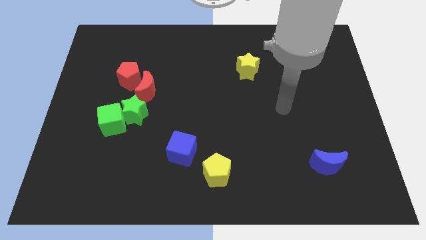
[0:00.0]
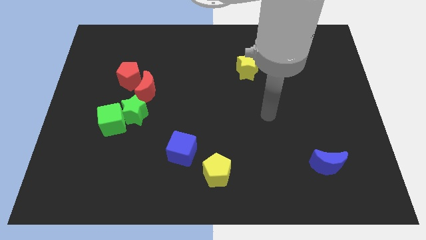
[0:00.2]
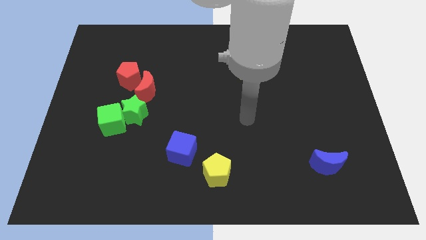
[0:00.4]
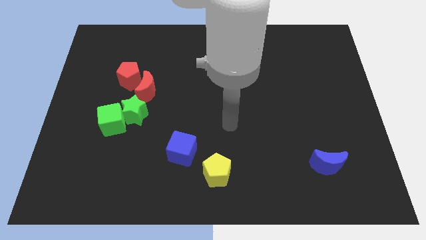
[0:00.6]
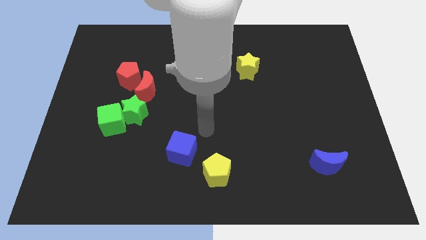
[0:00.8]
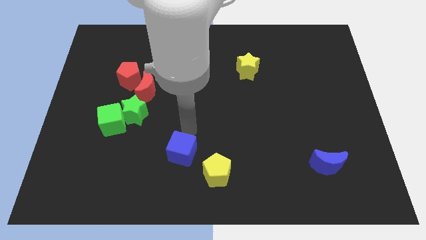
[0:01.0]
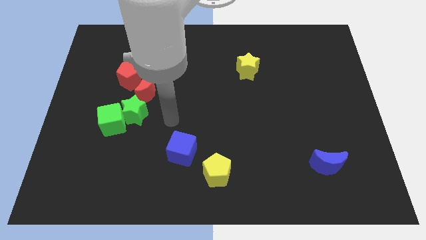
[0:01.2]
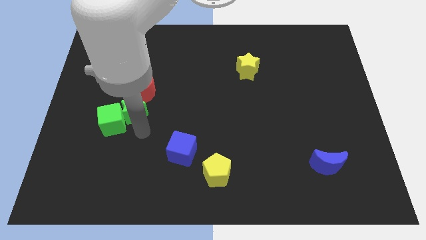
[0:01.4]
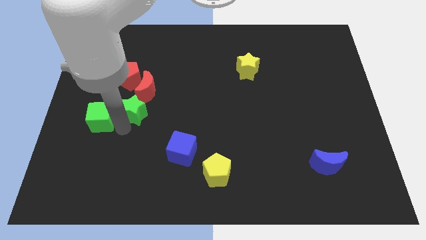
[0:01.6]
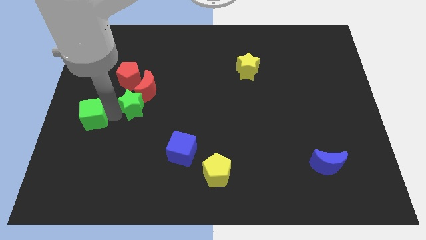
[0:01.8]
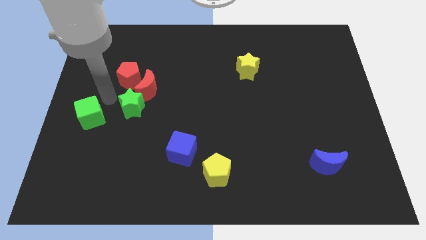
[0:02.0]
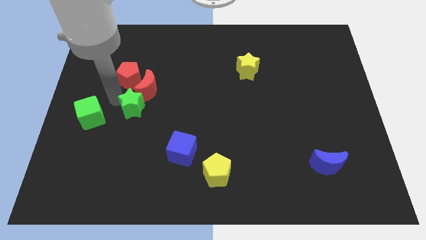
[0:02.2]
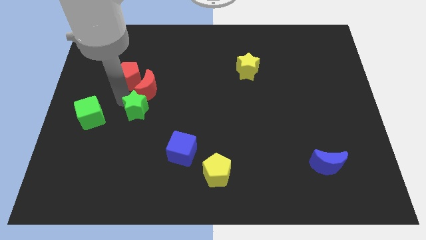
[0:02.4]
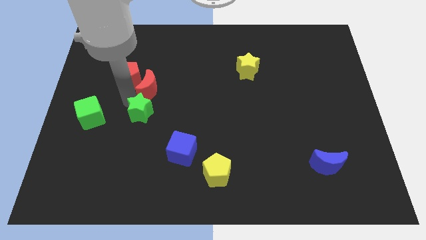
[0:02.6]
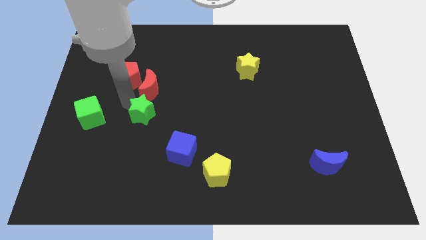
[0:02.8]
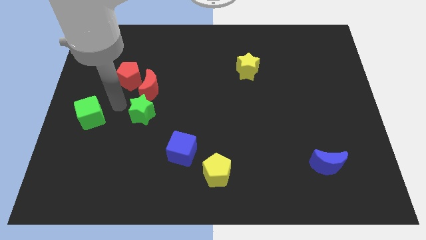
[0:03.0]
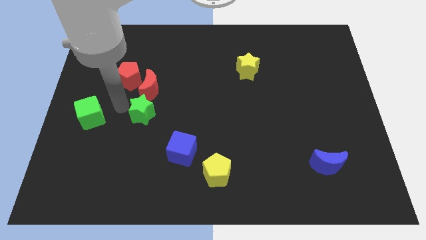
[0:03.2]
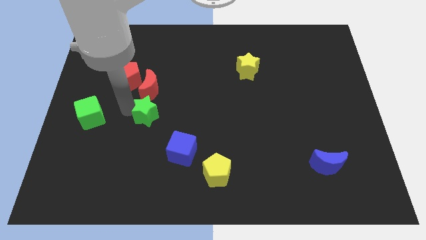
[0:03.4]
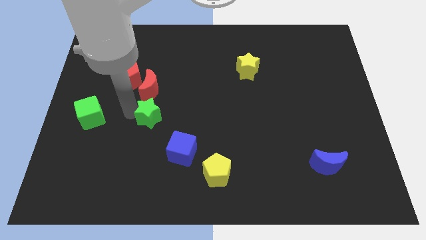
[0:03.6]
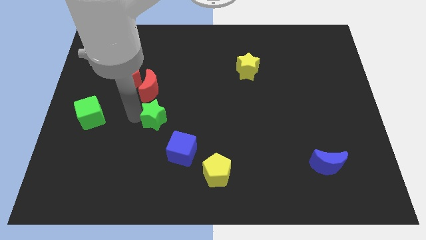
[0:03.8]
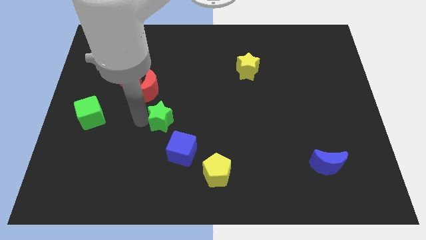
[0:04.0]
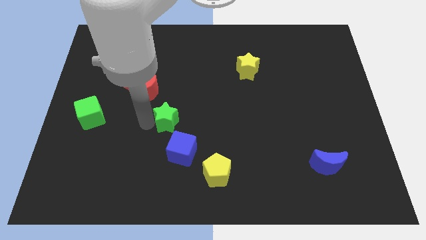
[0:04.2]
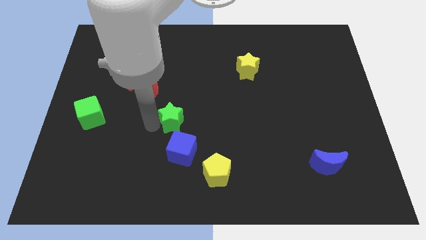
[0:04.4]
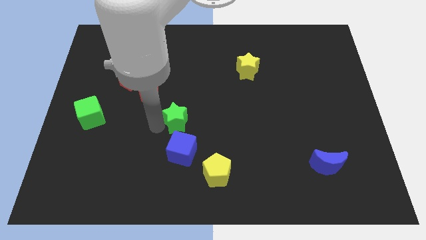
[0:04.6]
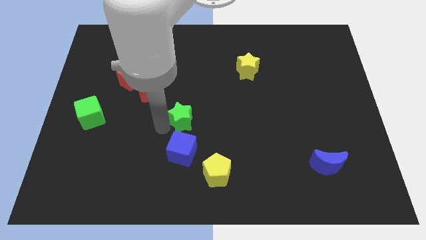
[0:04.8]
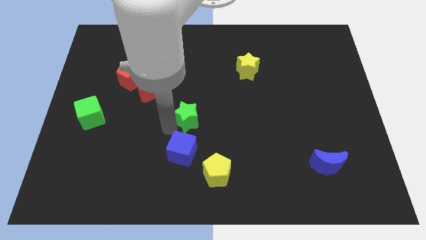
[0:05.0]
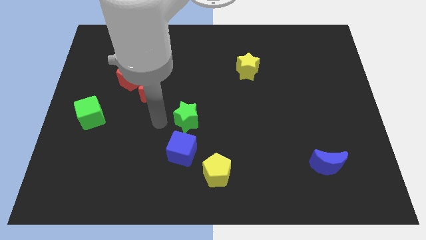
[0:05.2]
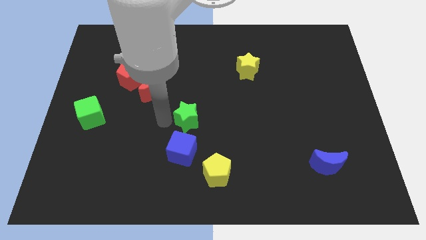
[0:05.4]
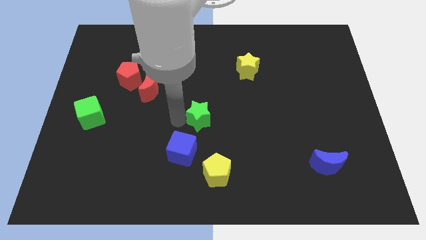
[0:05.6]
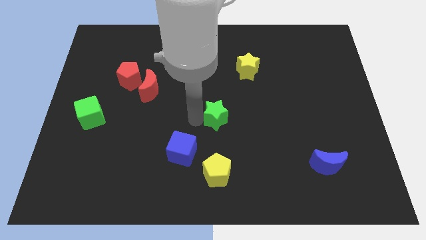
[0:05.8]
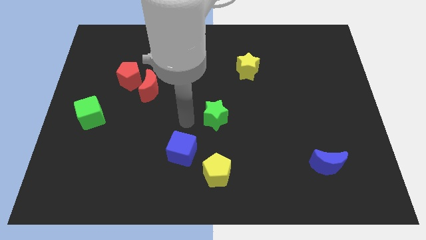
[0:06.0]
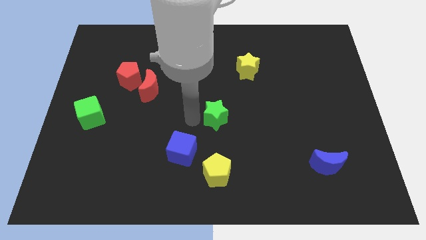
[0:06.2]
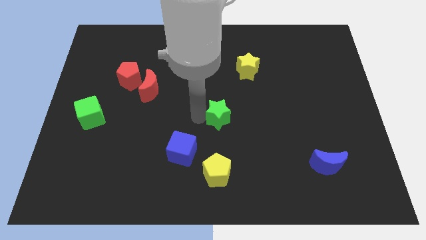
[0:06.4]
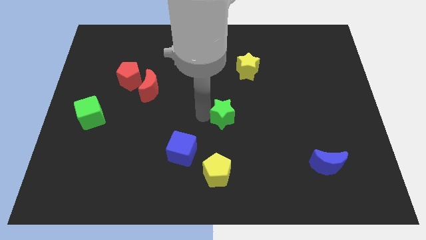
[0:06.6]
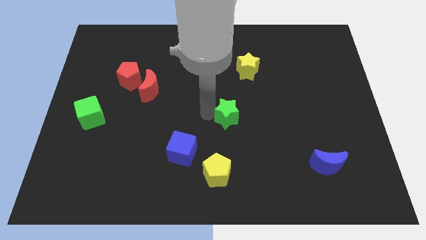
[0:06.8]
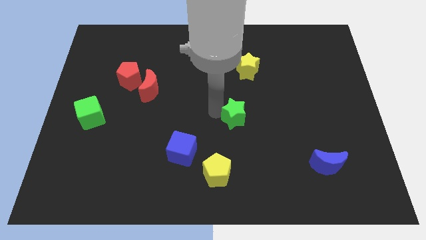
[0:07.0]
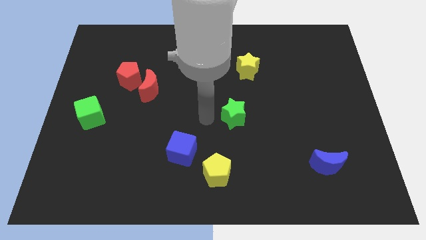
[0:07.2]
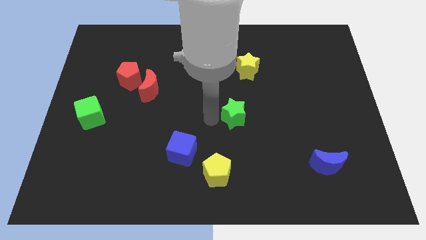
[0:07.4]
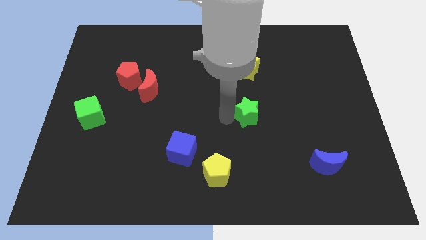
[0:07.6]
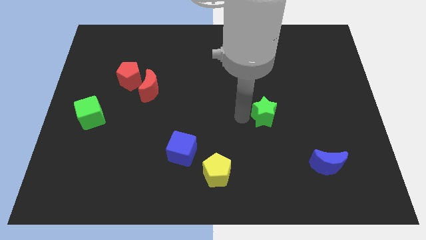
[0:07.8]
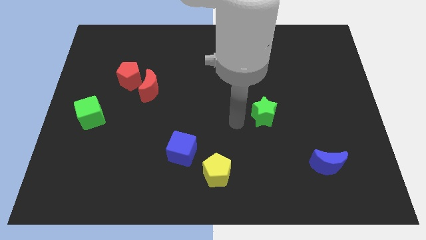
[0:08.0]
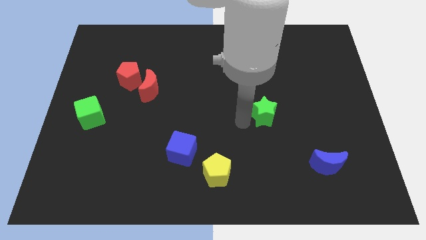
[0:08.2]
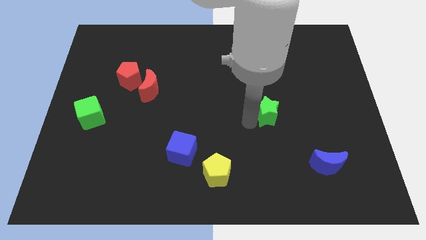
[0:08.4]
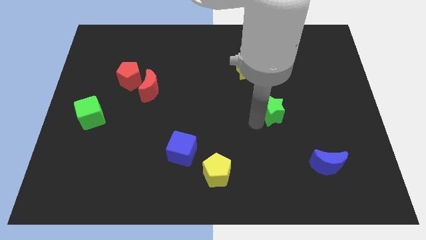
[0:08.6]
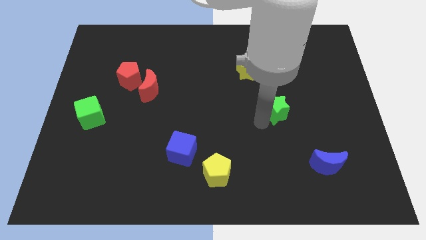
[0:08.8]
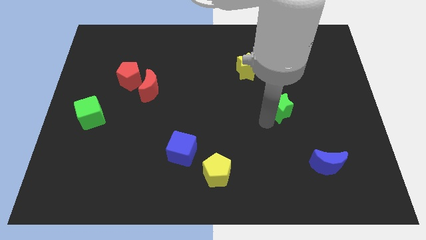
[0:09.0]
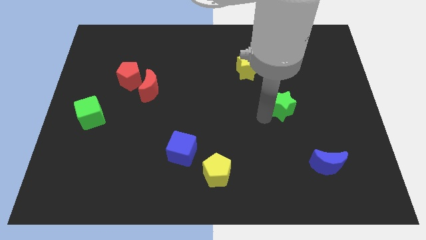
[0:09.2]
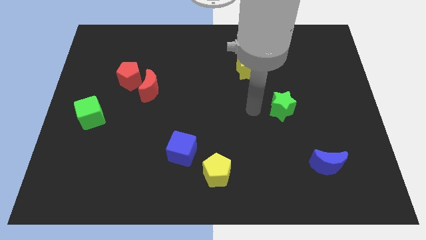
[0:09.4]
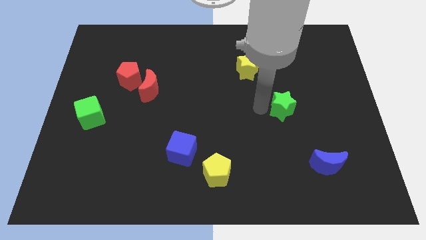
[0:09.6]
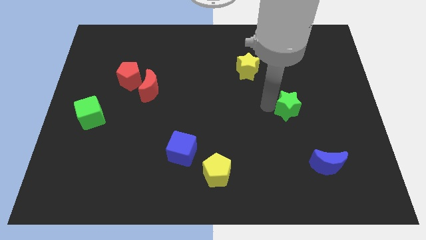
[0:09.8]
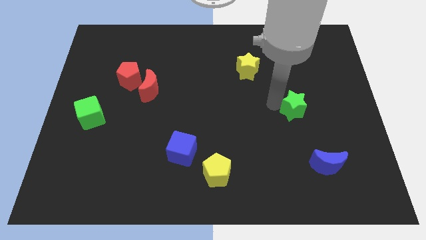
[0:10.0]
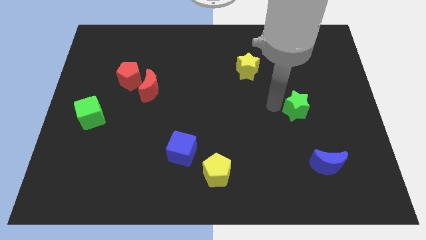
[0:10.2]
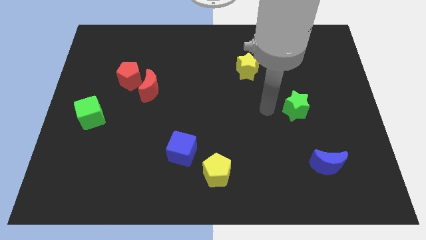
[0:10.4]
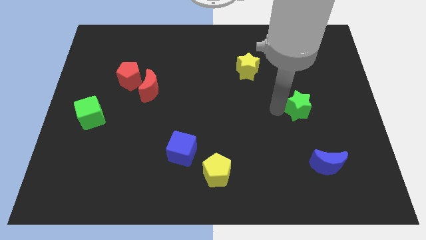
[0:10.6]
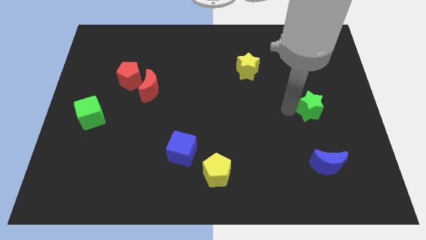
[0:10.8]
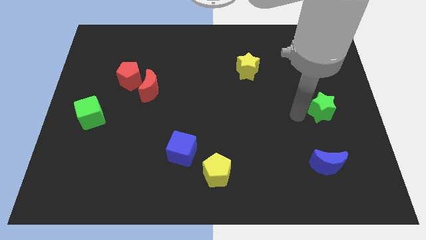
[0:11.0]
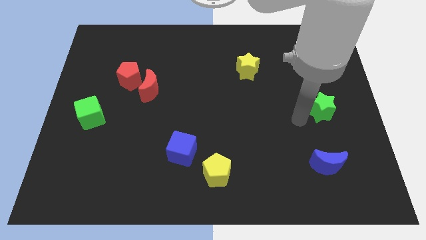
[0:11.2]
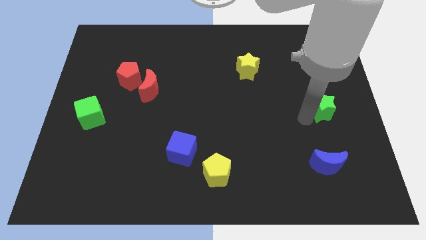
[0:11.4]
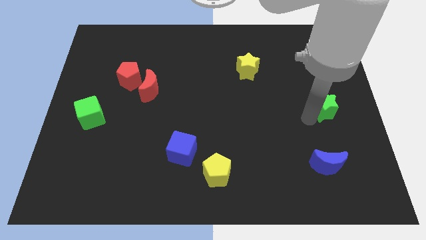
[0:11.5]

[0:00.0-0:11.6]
put the green star to the right side

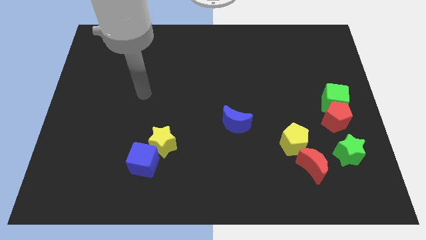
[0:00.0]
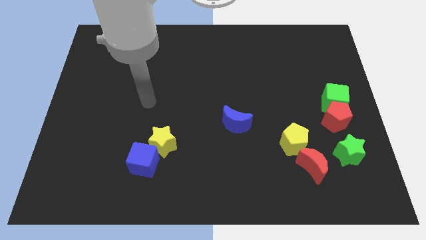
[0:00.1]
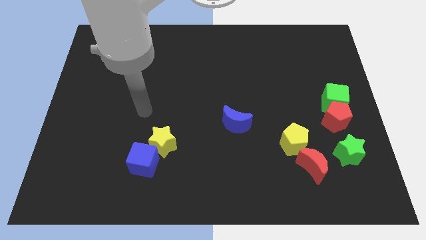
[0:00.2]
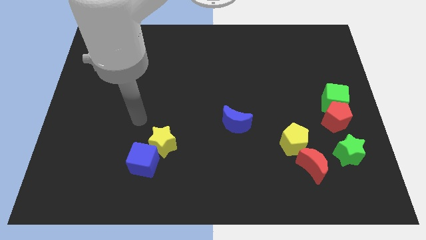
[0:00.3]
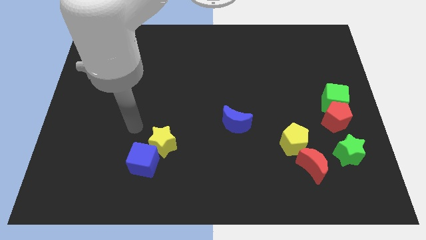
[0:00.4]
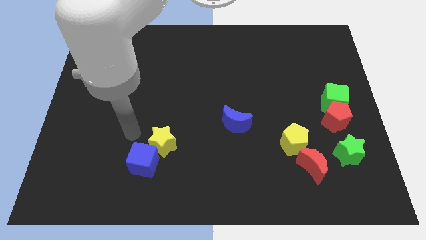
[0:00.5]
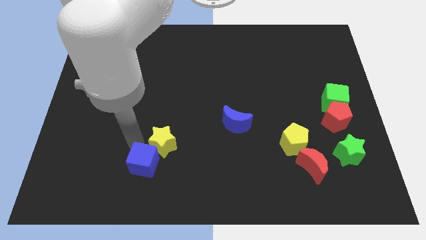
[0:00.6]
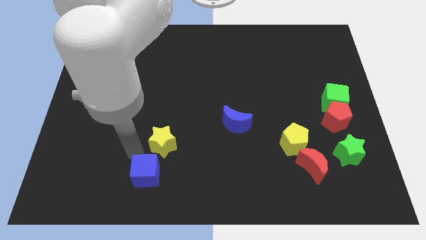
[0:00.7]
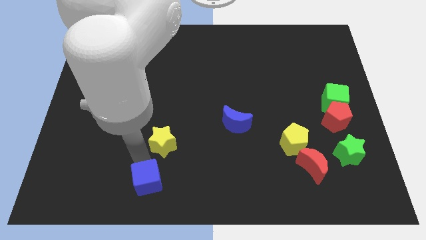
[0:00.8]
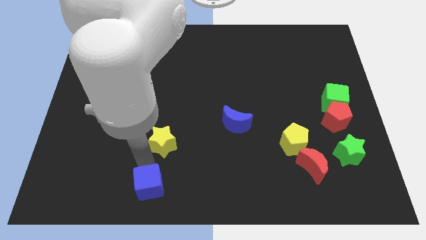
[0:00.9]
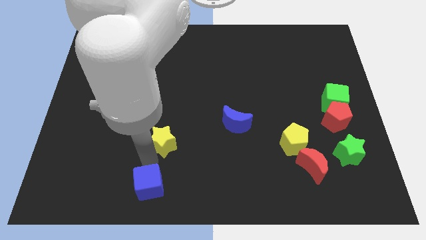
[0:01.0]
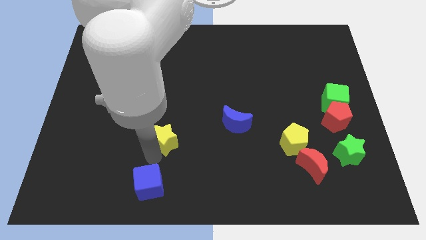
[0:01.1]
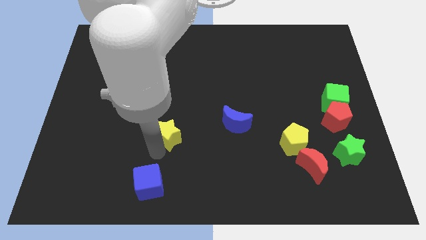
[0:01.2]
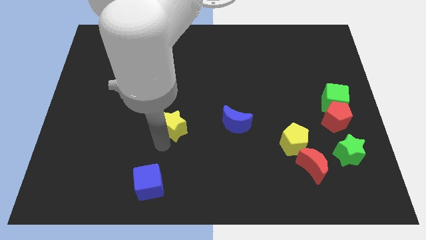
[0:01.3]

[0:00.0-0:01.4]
put the yellow star to the middle
